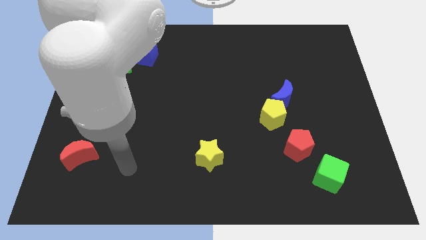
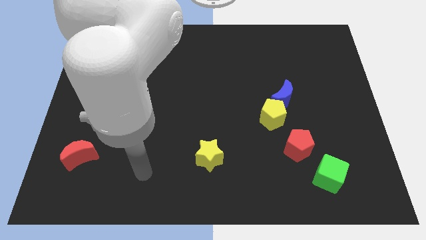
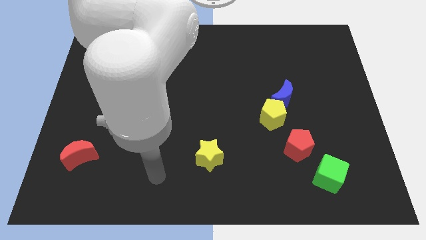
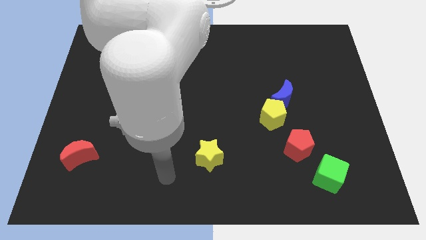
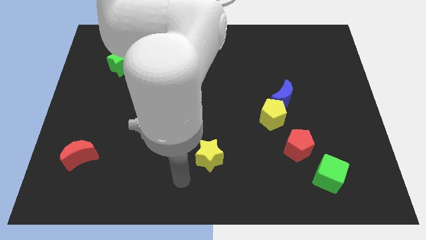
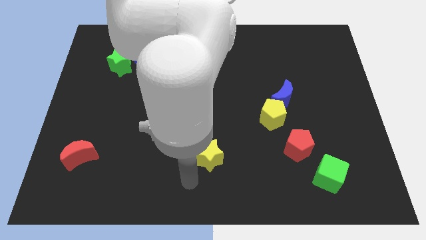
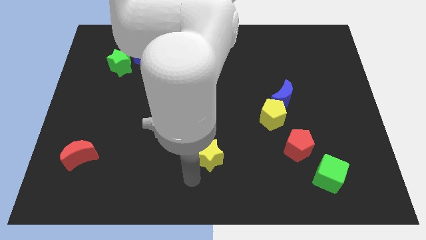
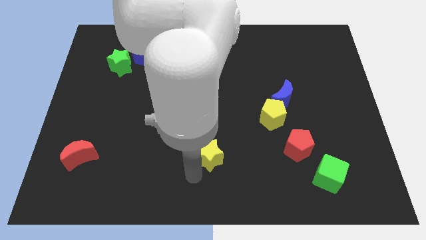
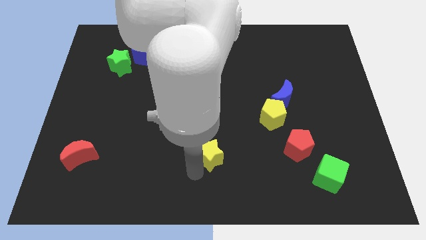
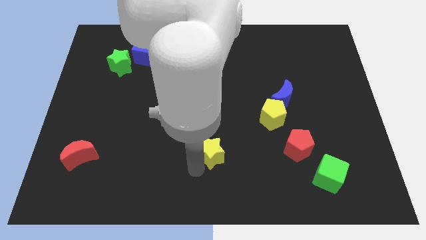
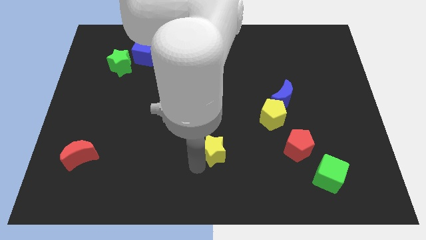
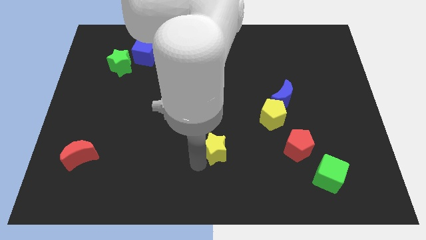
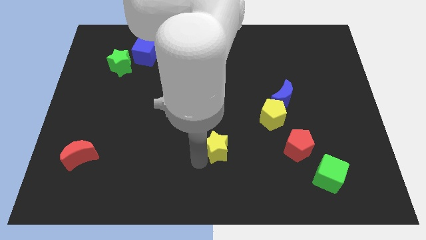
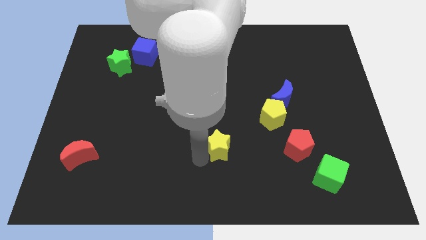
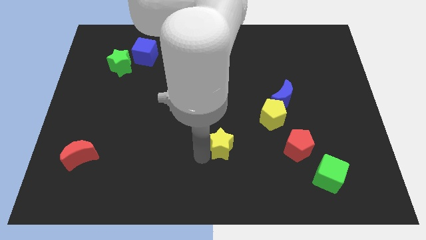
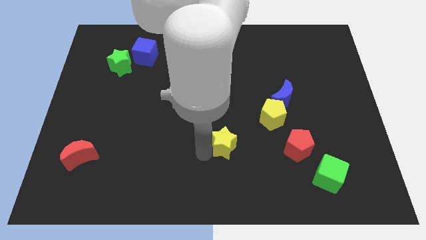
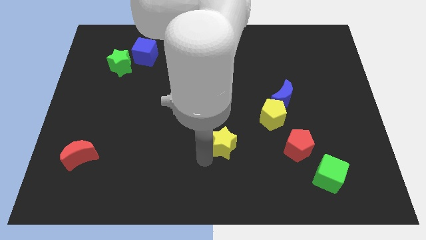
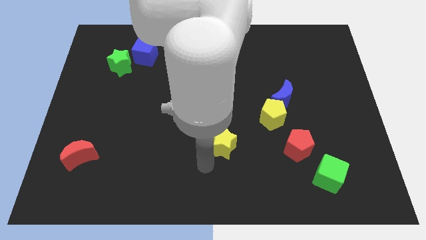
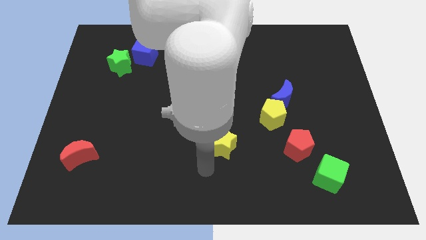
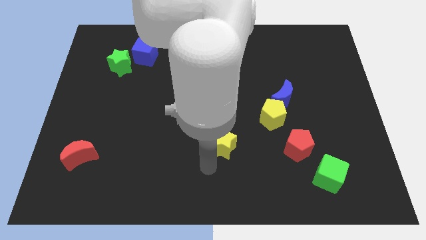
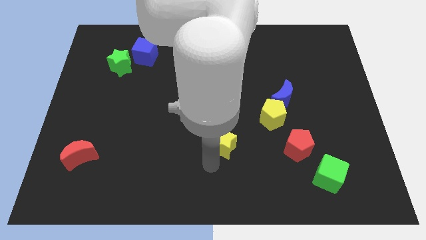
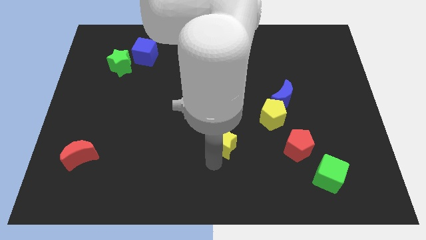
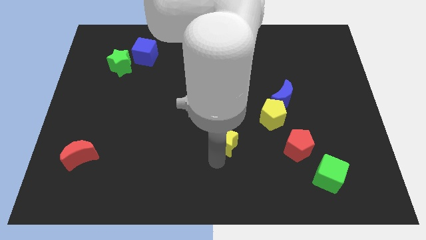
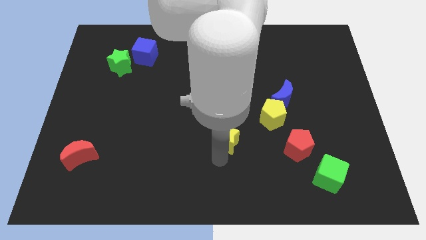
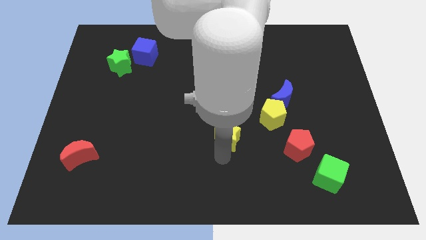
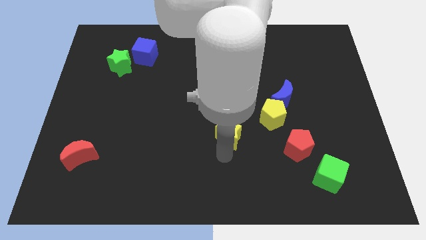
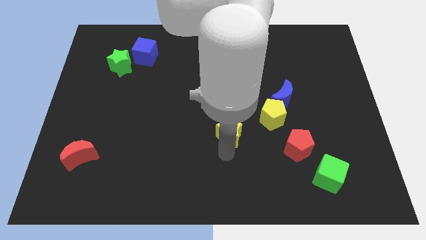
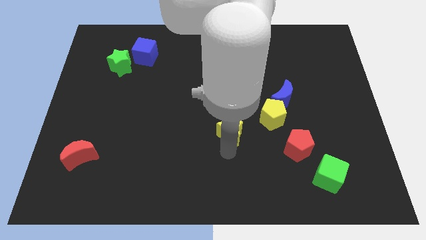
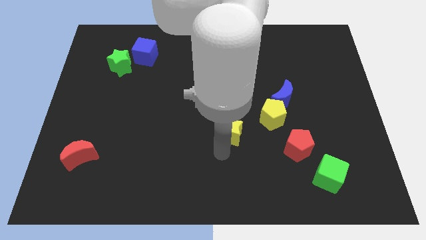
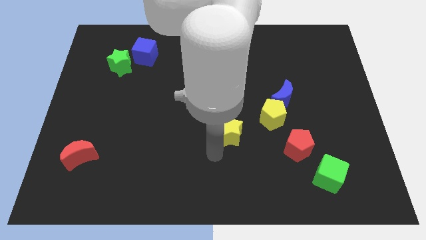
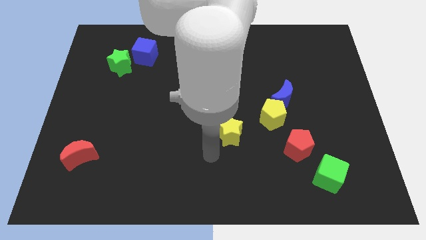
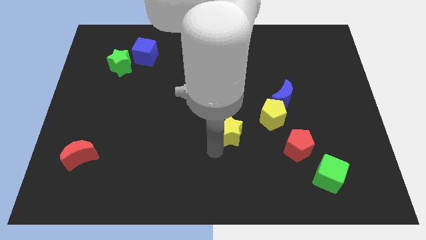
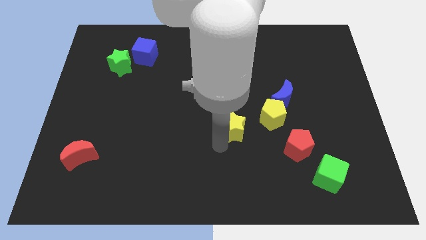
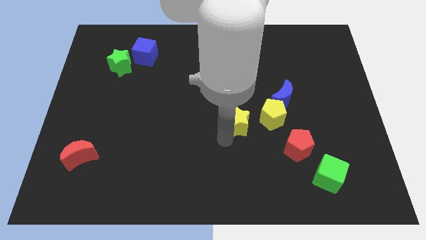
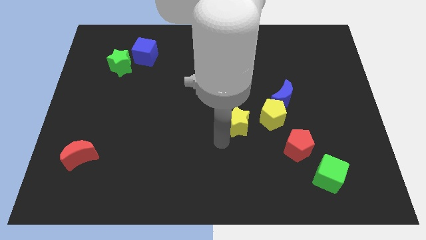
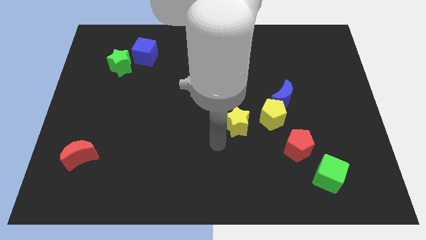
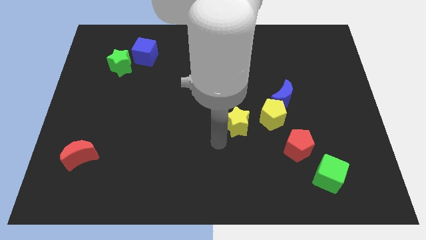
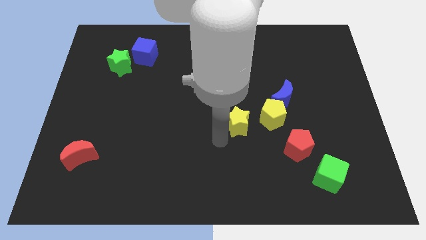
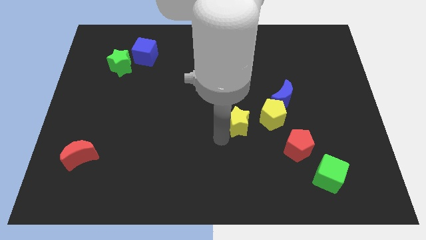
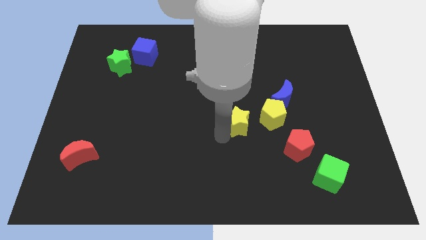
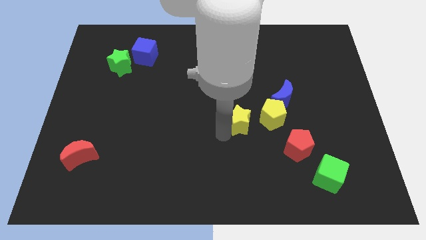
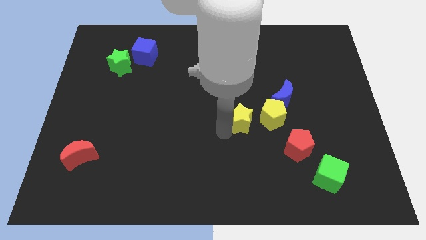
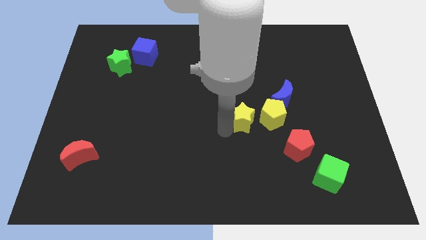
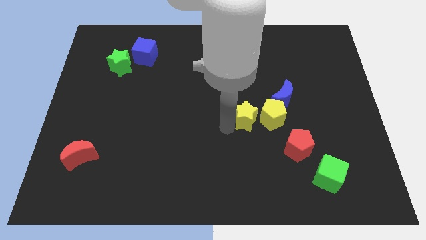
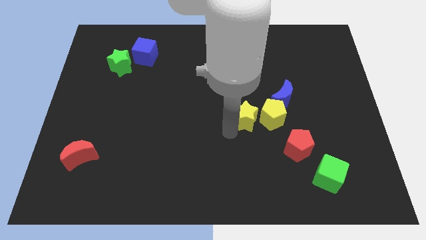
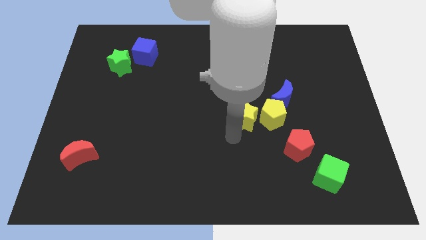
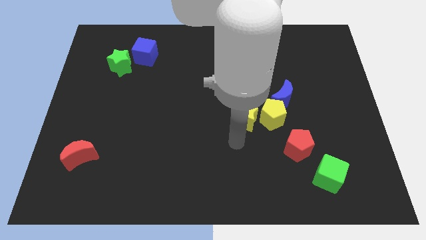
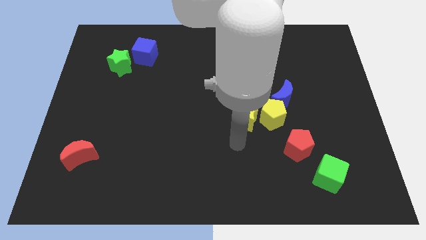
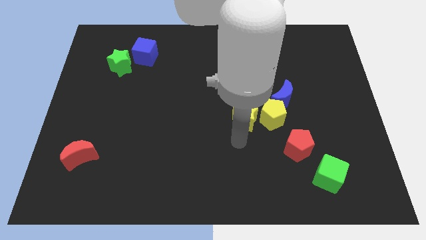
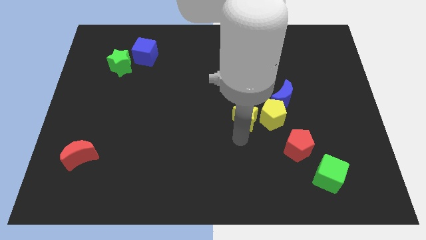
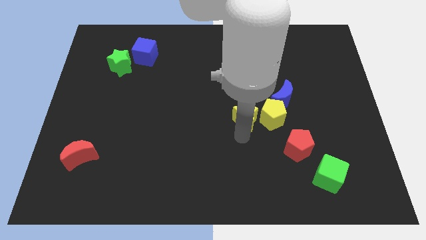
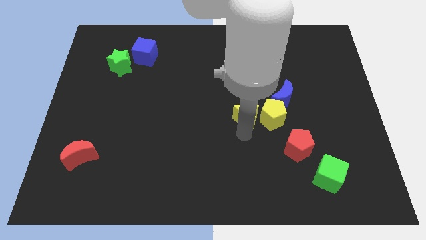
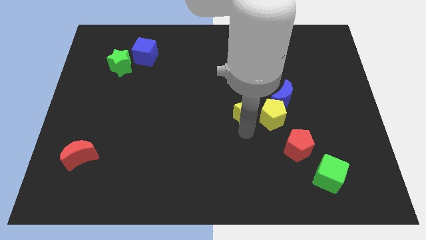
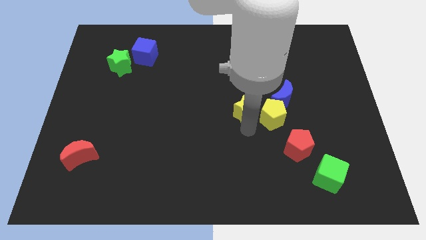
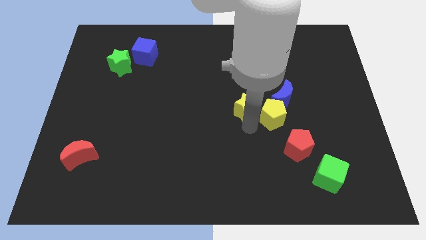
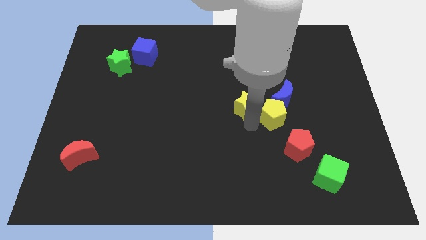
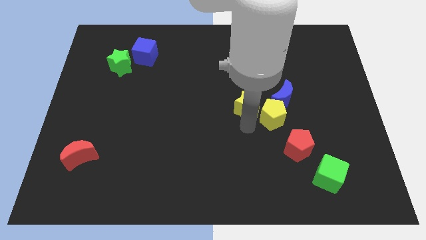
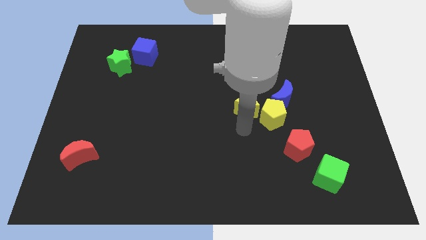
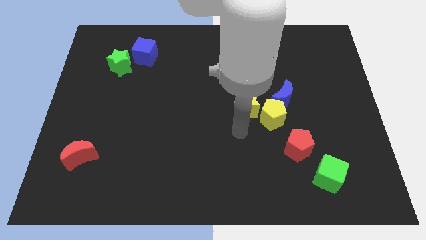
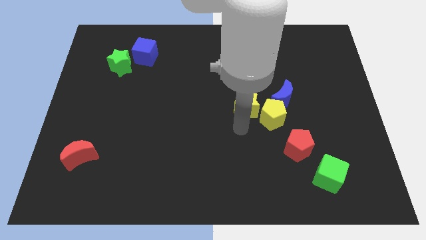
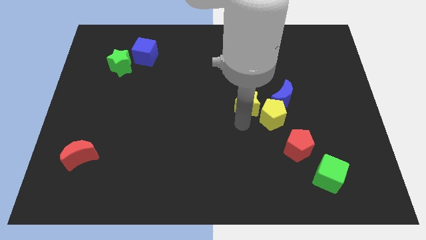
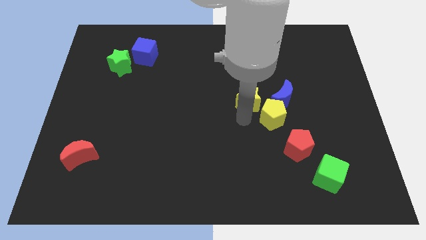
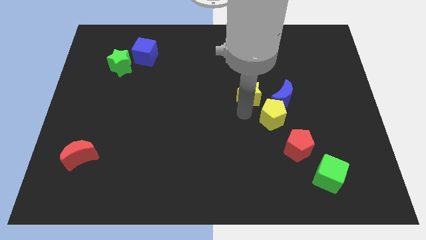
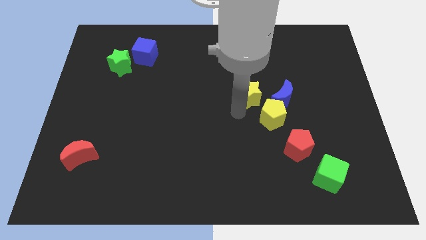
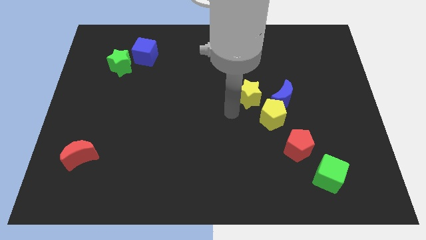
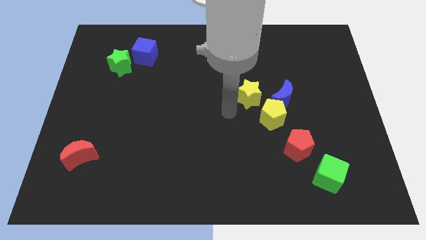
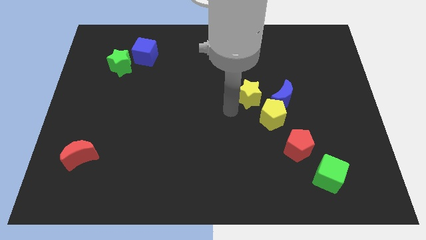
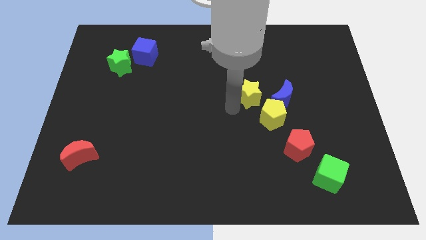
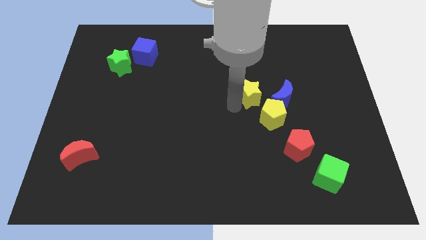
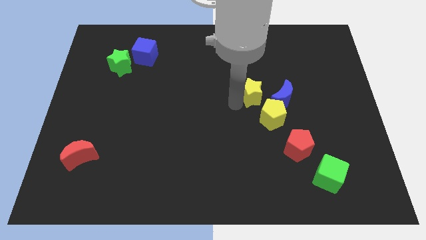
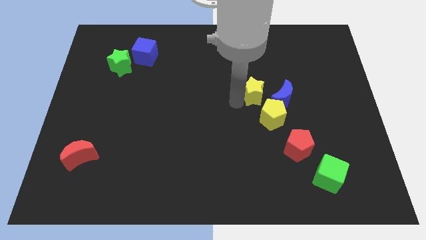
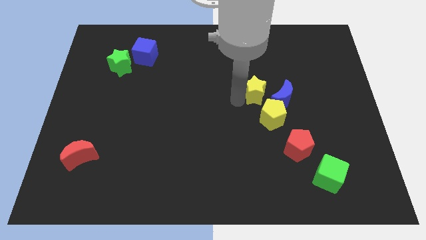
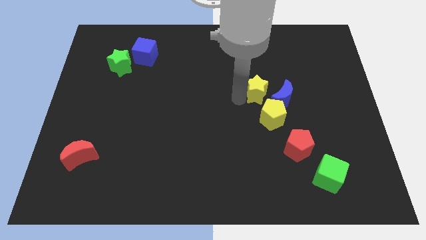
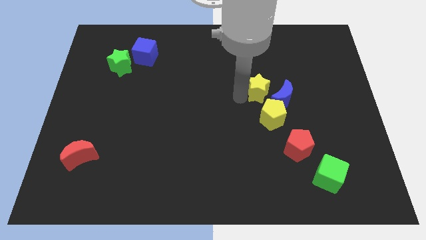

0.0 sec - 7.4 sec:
slide the yellow star up and right

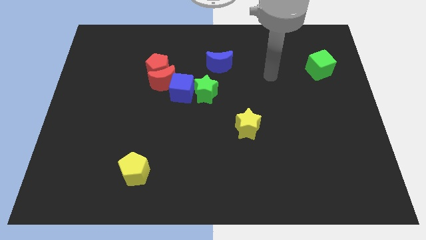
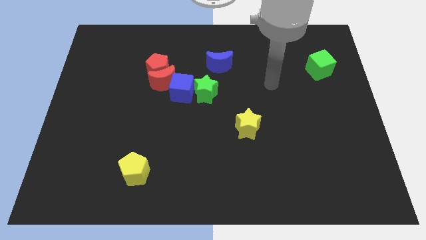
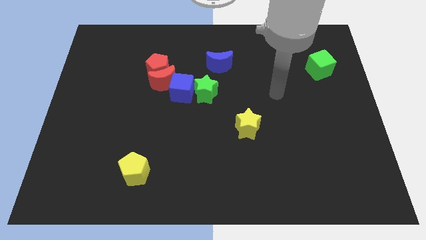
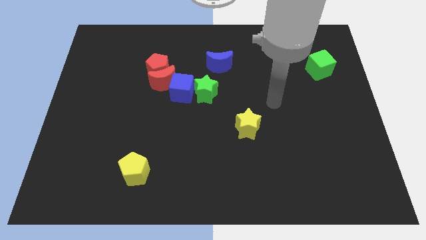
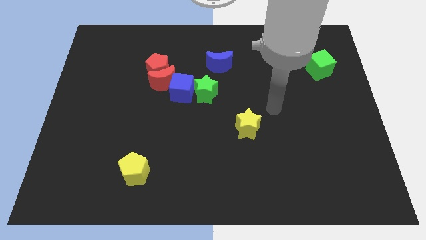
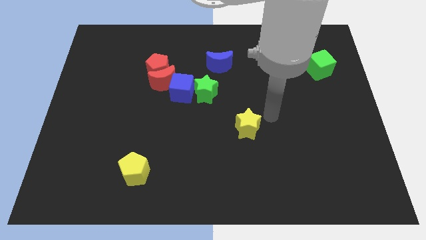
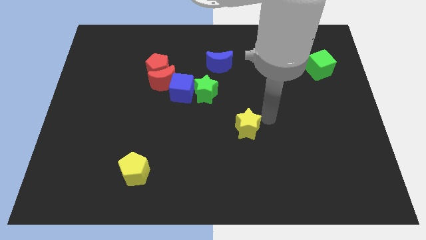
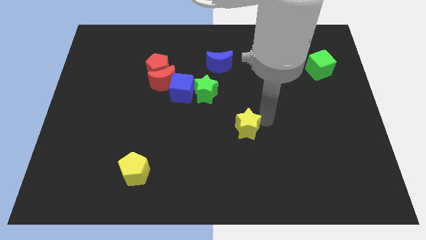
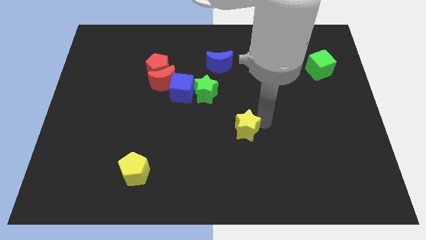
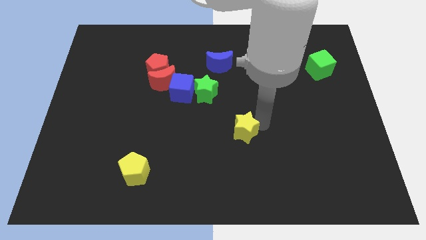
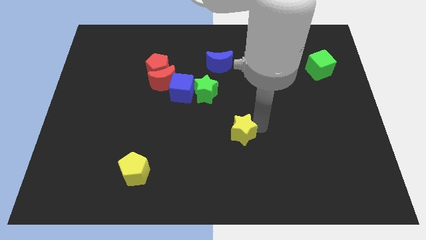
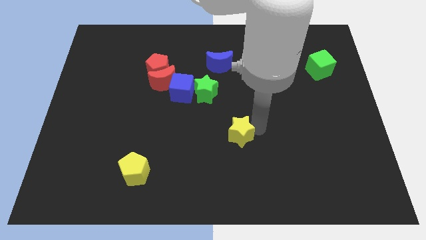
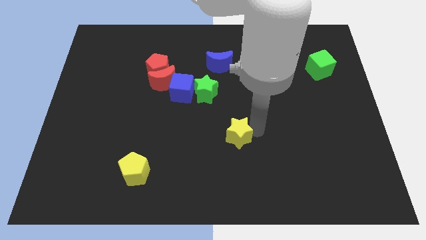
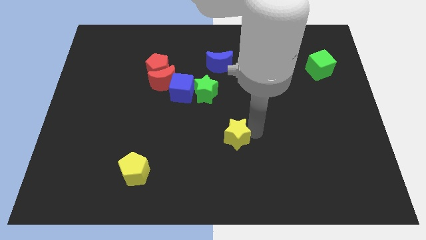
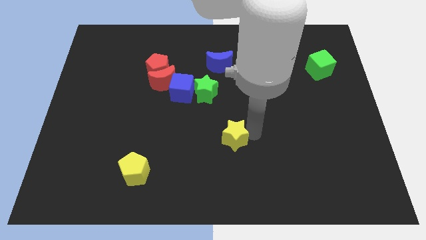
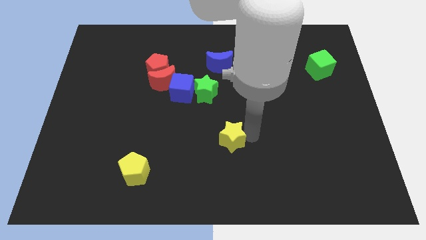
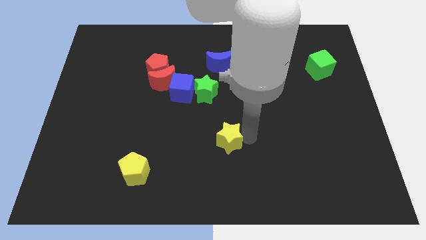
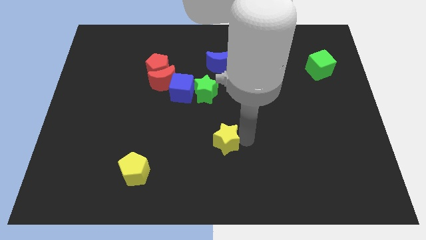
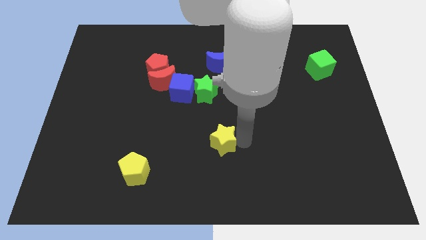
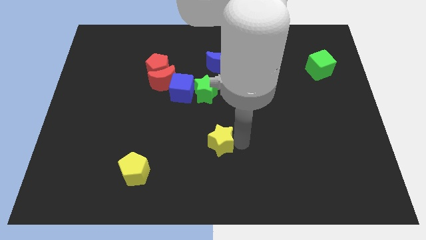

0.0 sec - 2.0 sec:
slide the yellow star a bit down and then to the left
